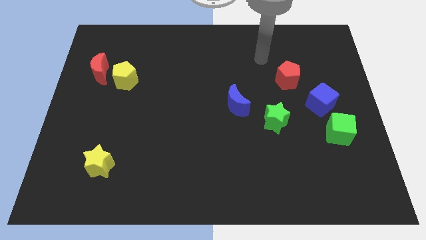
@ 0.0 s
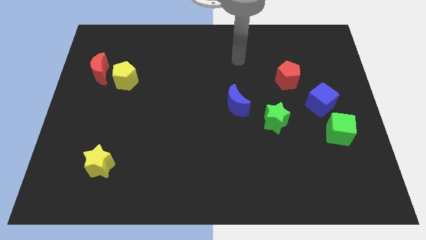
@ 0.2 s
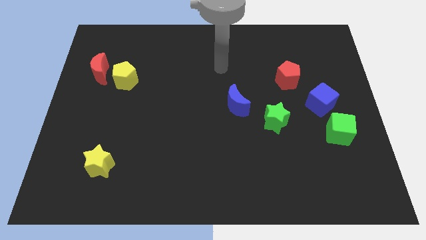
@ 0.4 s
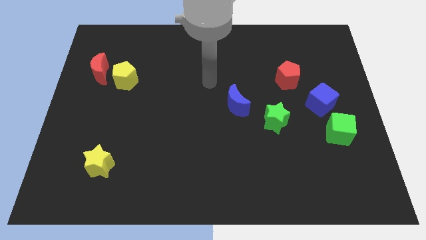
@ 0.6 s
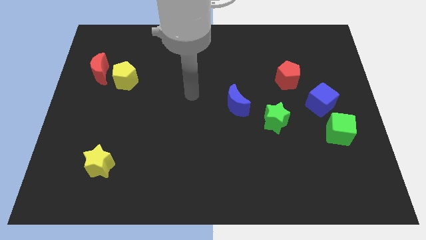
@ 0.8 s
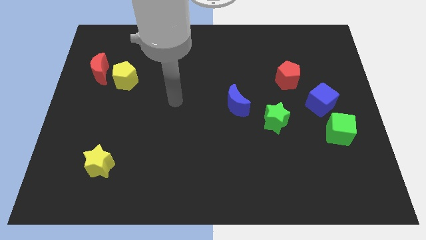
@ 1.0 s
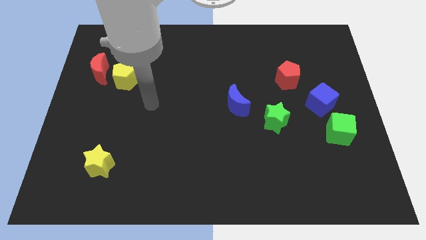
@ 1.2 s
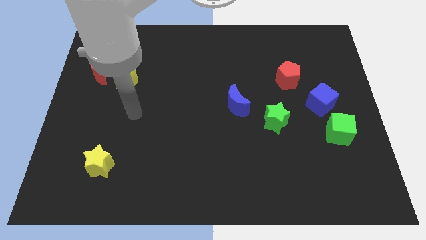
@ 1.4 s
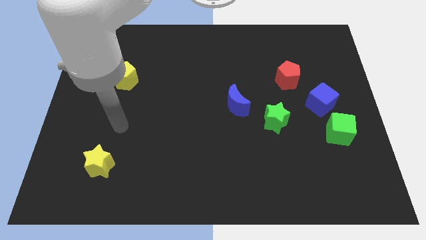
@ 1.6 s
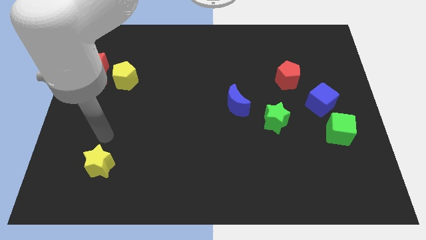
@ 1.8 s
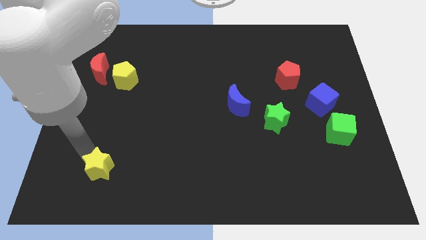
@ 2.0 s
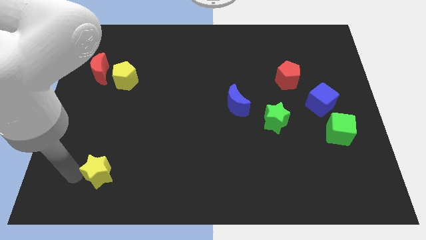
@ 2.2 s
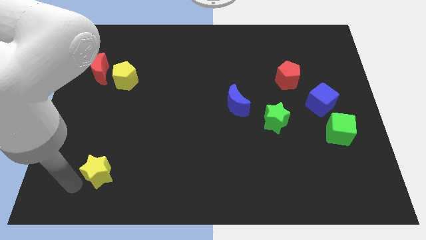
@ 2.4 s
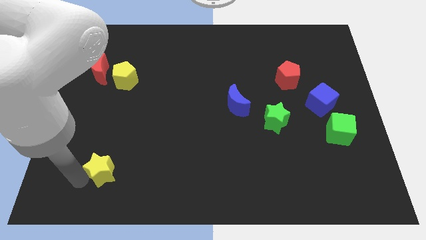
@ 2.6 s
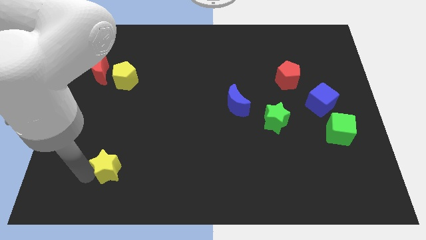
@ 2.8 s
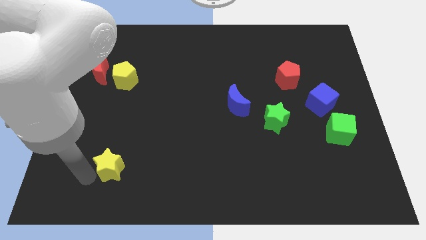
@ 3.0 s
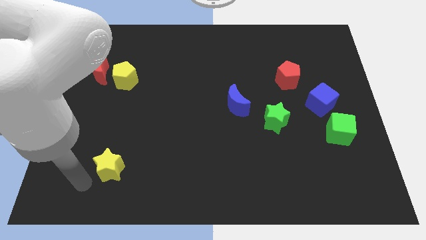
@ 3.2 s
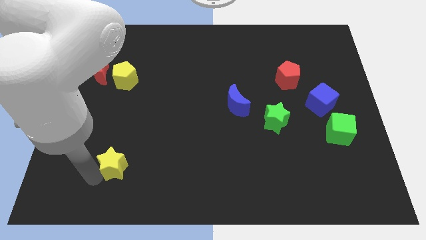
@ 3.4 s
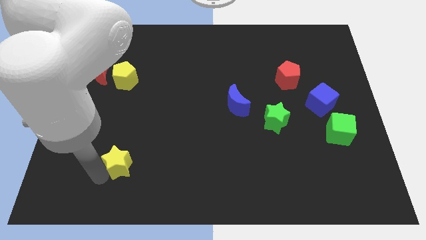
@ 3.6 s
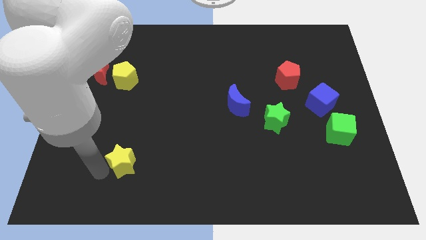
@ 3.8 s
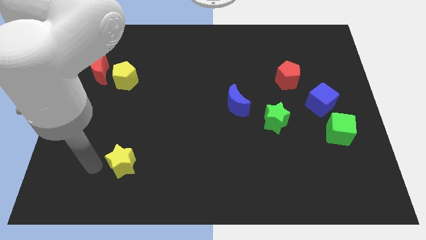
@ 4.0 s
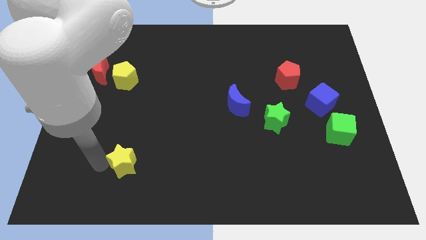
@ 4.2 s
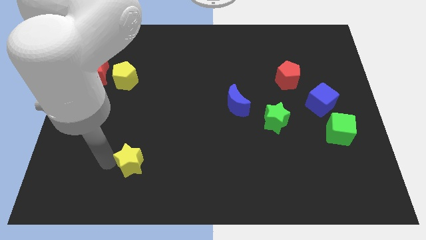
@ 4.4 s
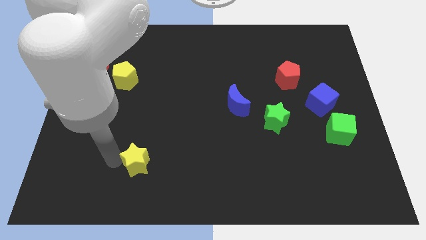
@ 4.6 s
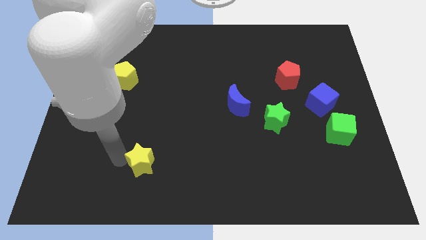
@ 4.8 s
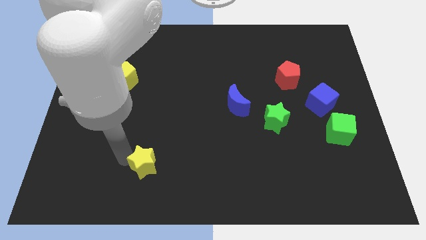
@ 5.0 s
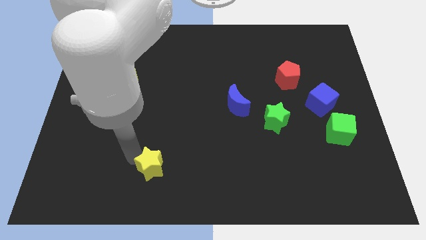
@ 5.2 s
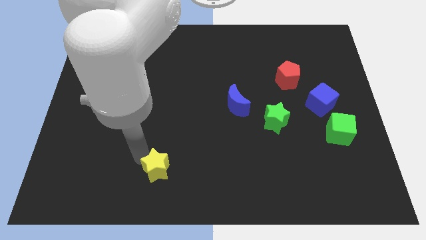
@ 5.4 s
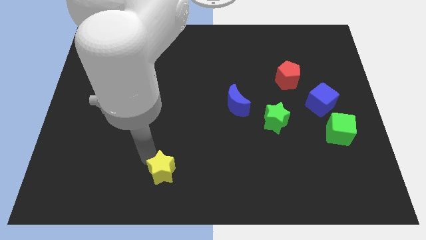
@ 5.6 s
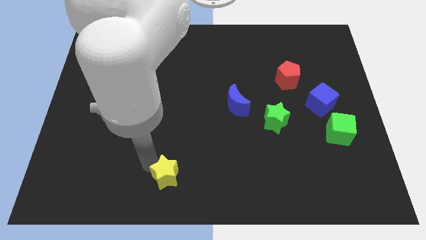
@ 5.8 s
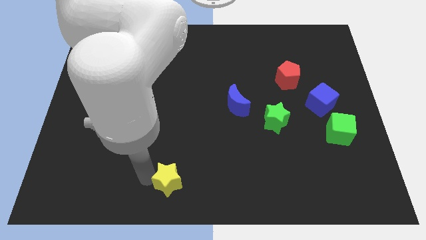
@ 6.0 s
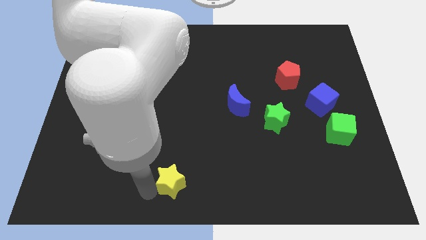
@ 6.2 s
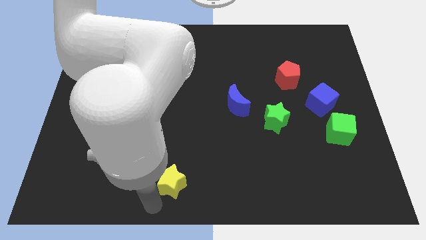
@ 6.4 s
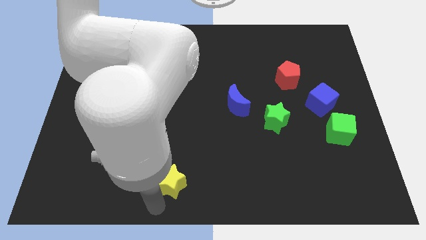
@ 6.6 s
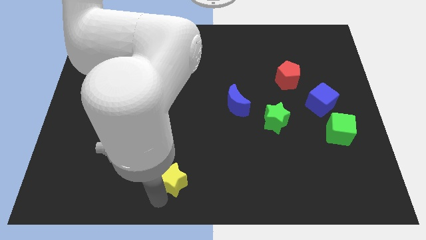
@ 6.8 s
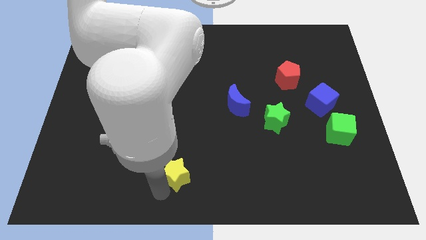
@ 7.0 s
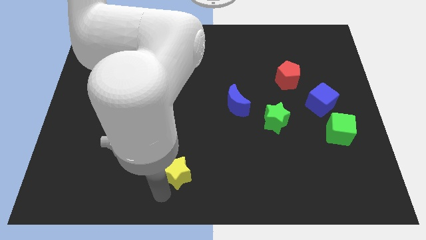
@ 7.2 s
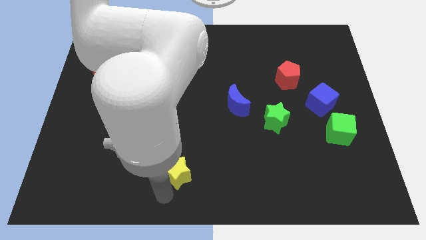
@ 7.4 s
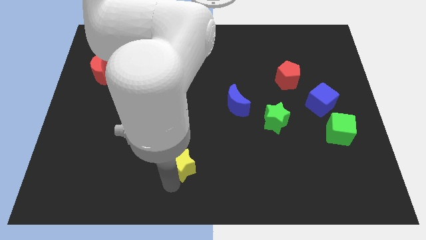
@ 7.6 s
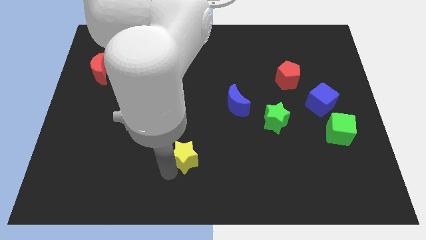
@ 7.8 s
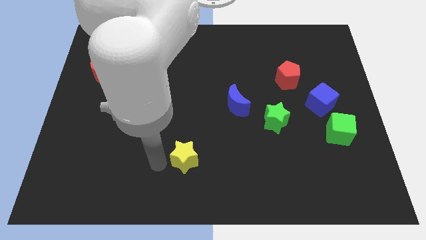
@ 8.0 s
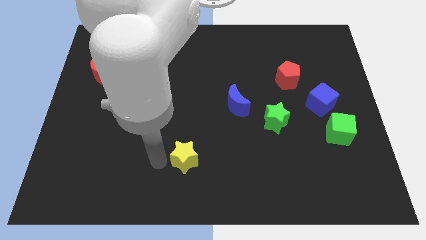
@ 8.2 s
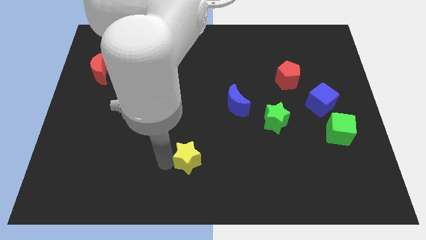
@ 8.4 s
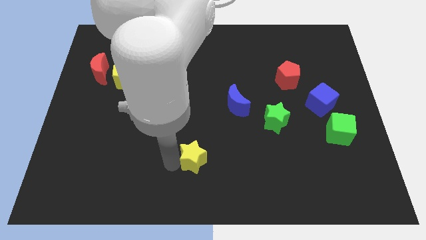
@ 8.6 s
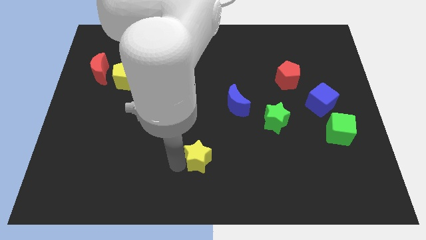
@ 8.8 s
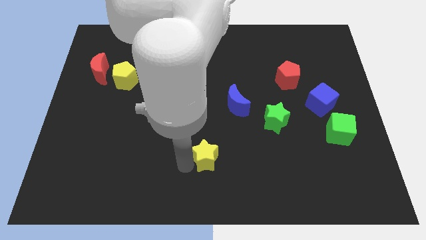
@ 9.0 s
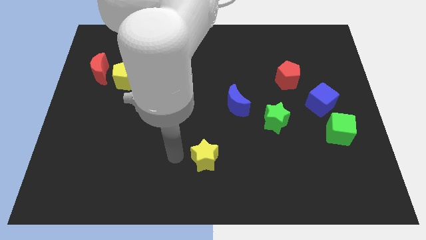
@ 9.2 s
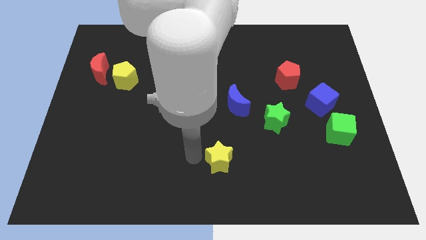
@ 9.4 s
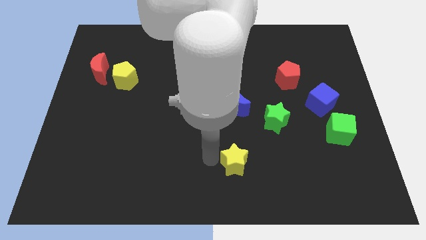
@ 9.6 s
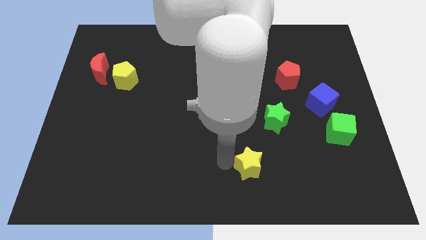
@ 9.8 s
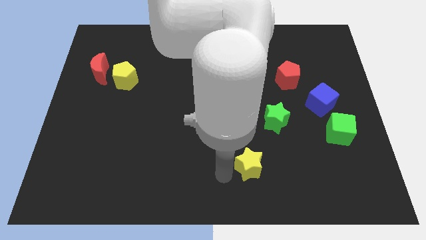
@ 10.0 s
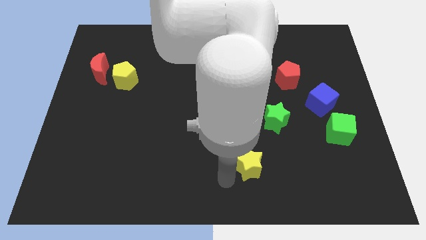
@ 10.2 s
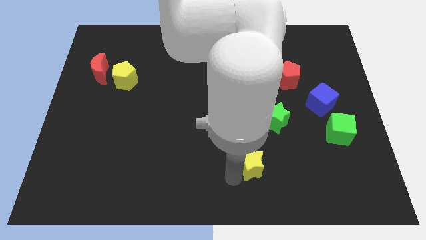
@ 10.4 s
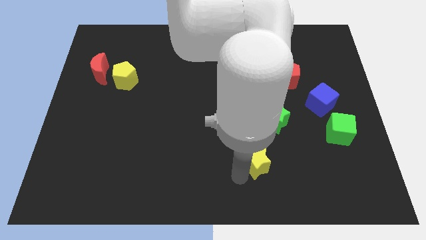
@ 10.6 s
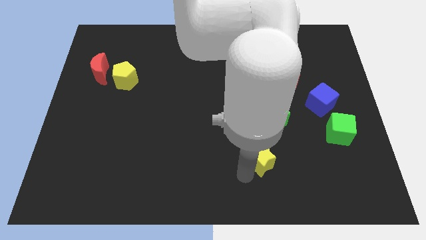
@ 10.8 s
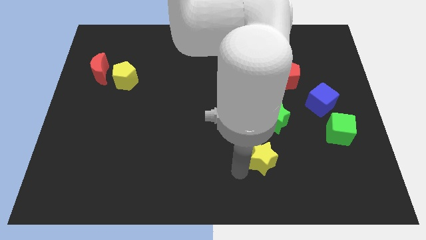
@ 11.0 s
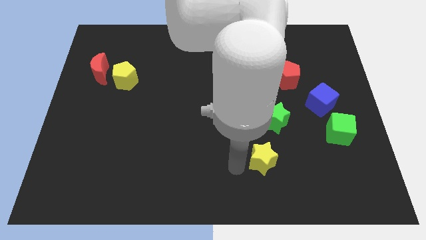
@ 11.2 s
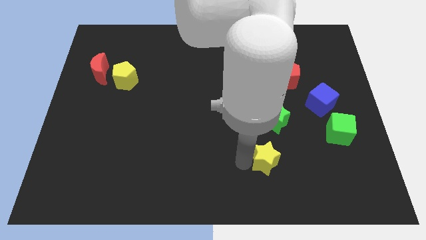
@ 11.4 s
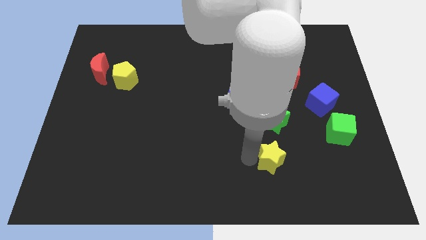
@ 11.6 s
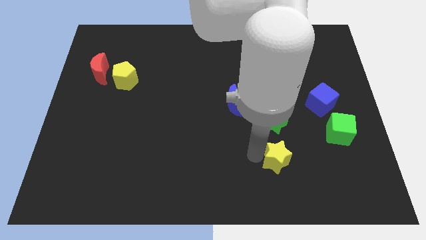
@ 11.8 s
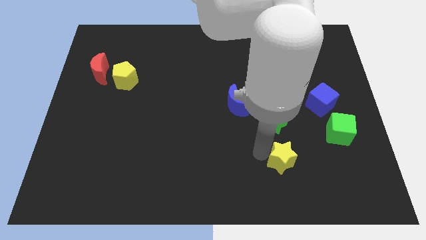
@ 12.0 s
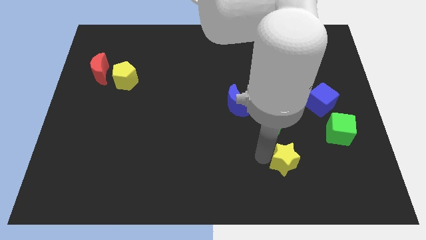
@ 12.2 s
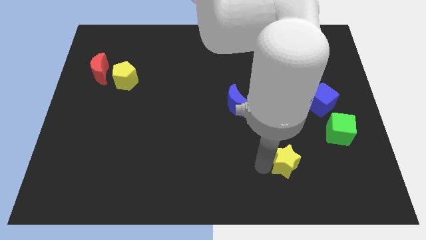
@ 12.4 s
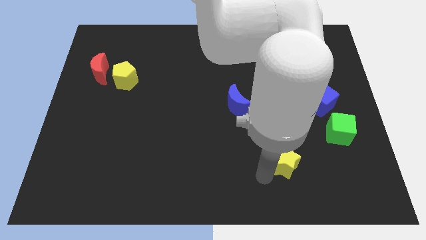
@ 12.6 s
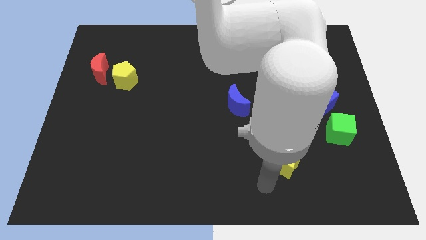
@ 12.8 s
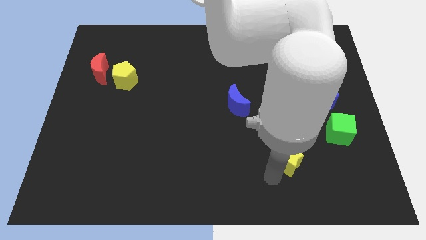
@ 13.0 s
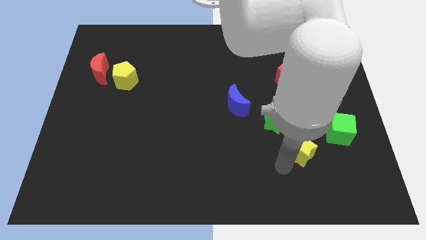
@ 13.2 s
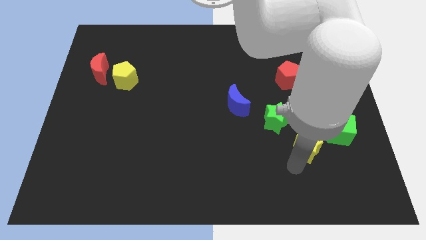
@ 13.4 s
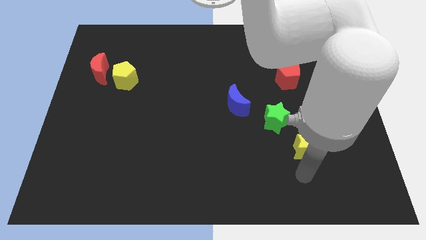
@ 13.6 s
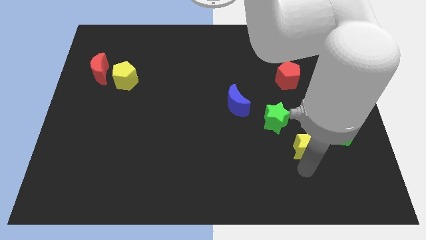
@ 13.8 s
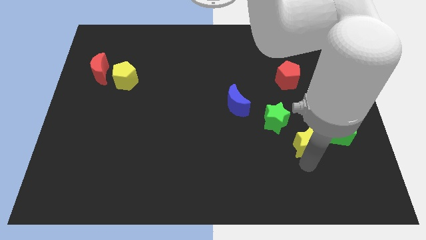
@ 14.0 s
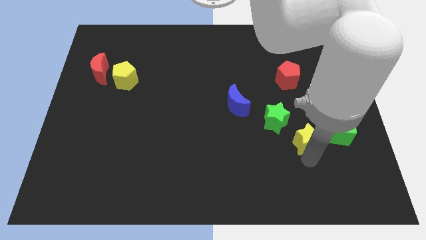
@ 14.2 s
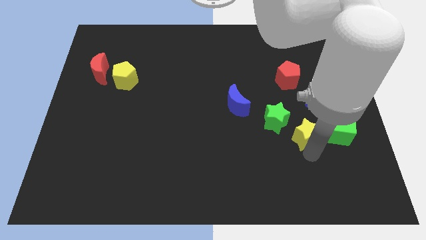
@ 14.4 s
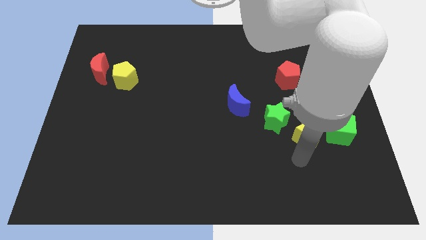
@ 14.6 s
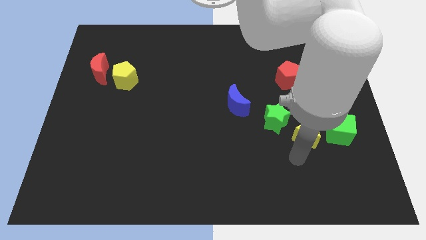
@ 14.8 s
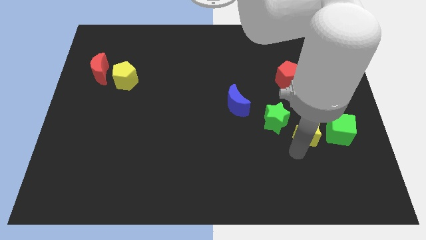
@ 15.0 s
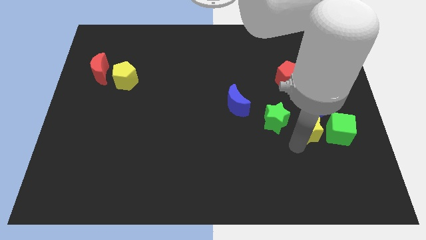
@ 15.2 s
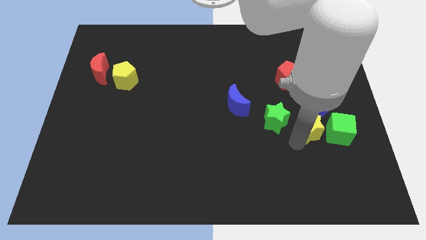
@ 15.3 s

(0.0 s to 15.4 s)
slide the yellow star to the top left side of the green cube
